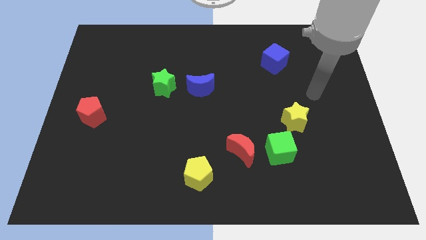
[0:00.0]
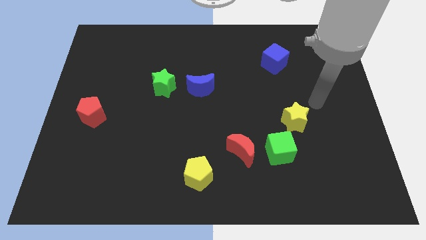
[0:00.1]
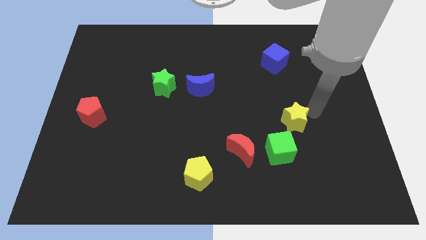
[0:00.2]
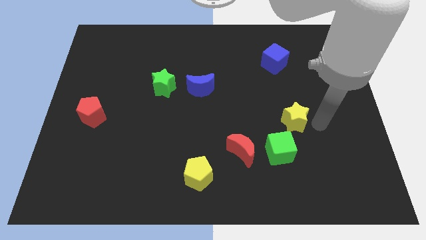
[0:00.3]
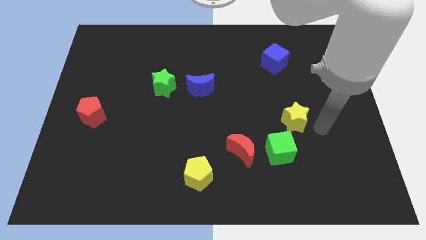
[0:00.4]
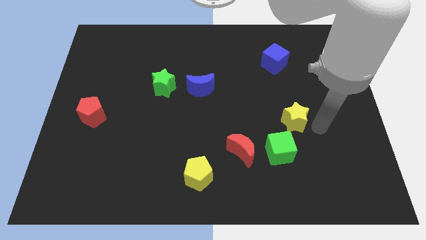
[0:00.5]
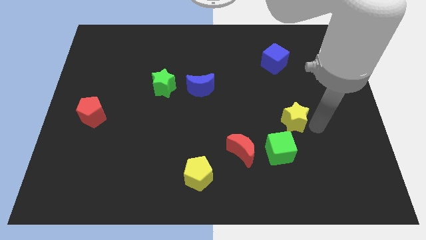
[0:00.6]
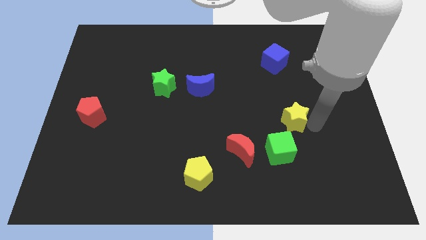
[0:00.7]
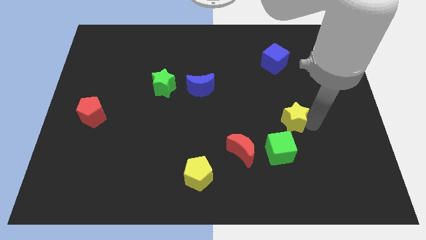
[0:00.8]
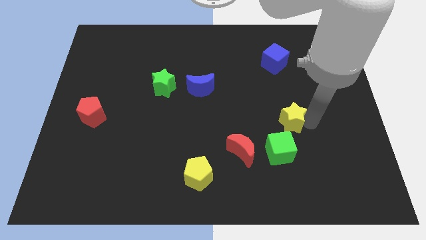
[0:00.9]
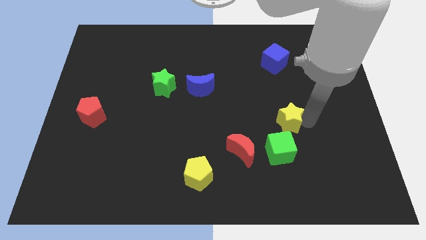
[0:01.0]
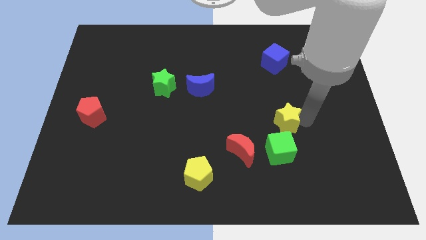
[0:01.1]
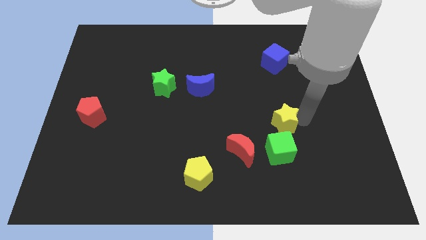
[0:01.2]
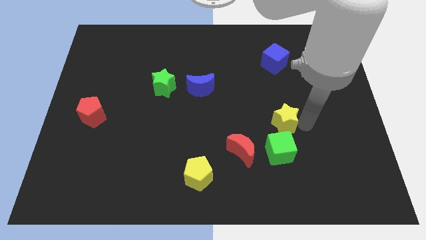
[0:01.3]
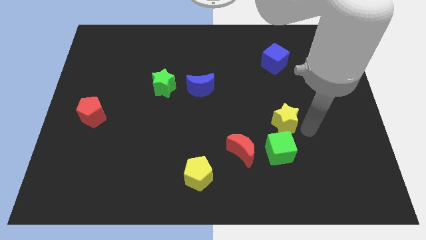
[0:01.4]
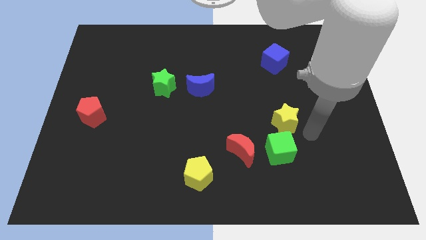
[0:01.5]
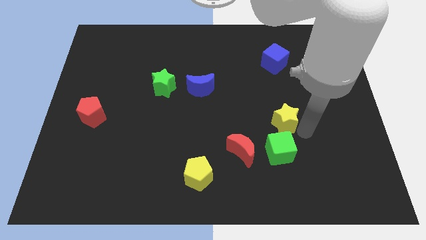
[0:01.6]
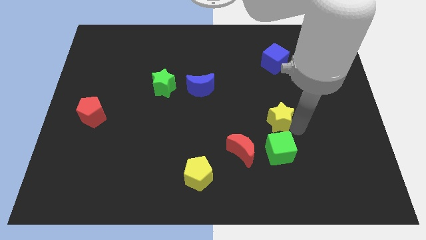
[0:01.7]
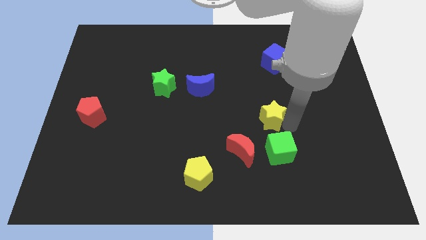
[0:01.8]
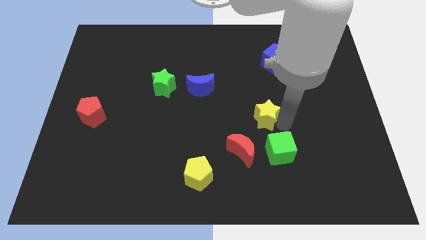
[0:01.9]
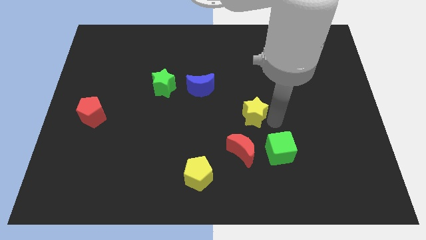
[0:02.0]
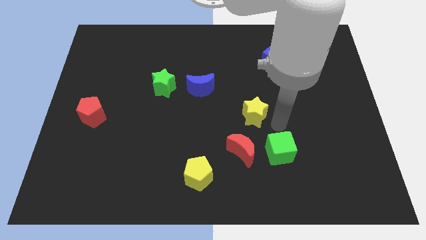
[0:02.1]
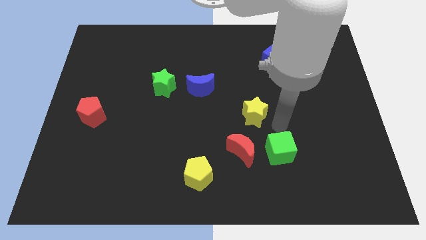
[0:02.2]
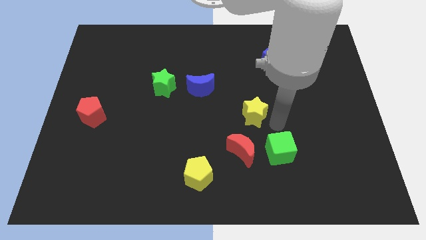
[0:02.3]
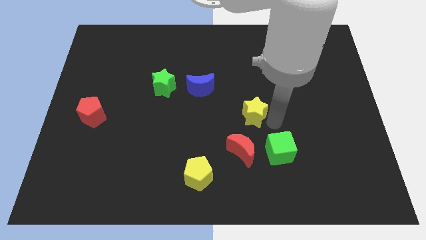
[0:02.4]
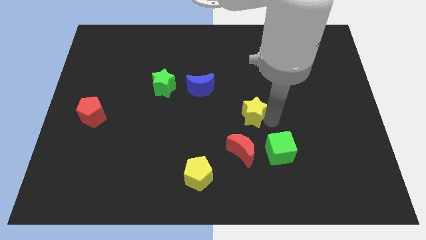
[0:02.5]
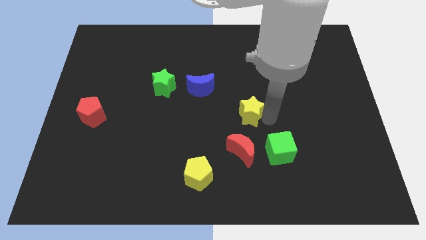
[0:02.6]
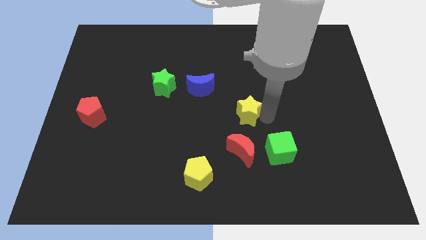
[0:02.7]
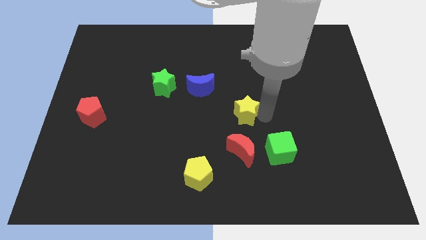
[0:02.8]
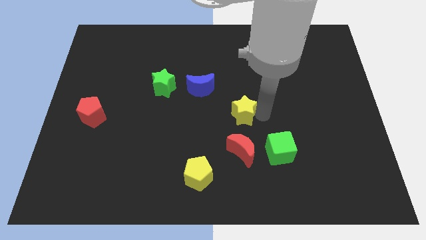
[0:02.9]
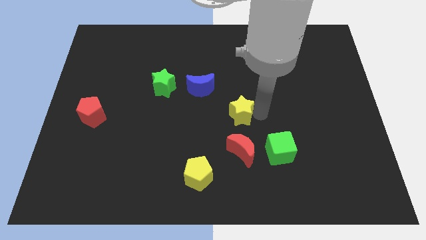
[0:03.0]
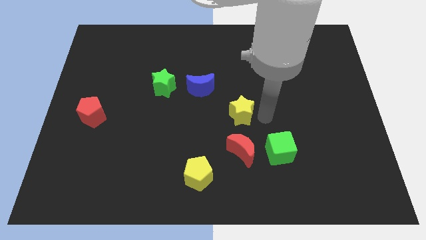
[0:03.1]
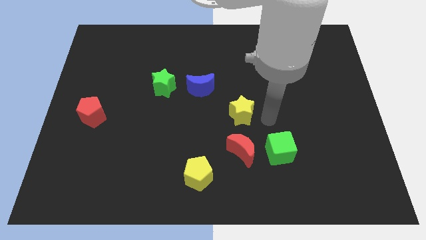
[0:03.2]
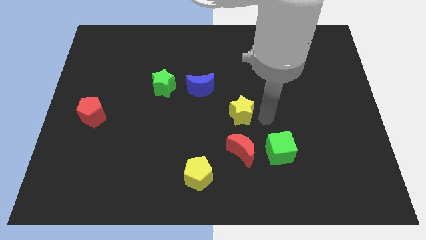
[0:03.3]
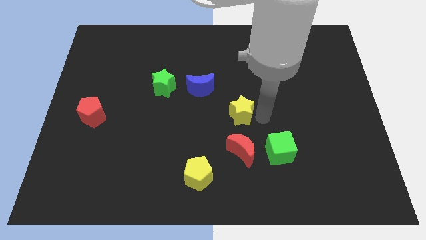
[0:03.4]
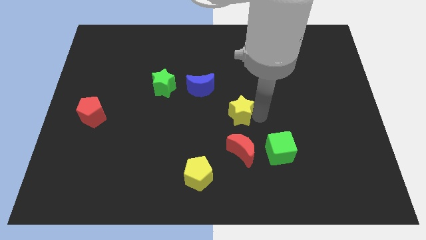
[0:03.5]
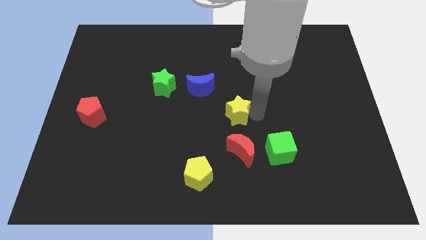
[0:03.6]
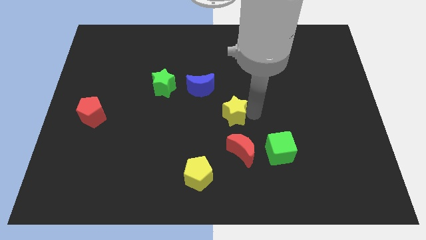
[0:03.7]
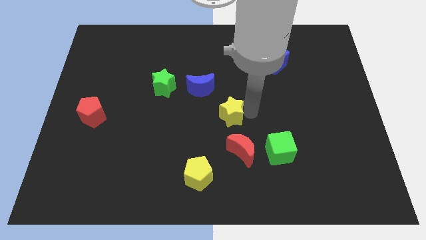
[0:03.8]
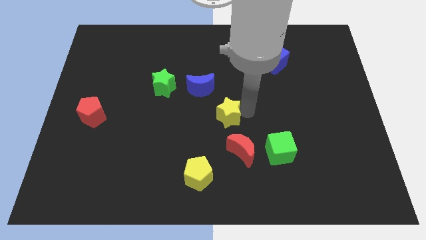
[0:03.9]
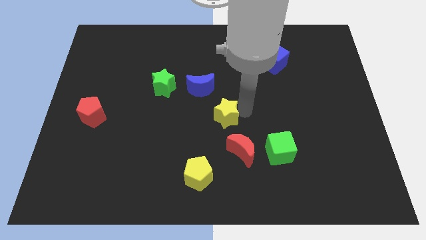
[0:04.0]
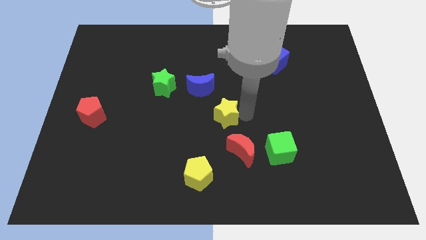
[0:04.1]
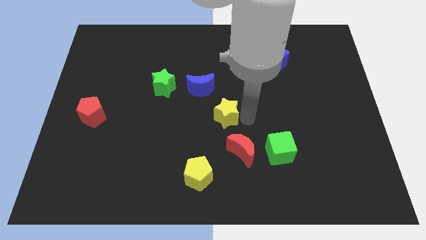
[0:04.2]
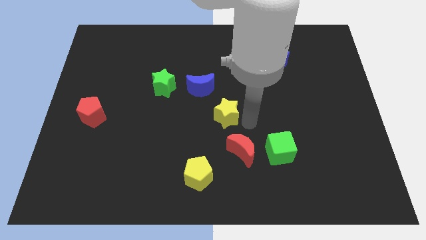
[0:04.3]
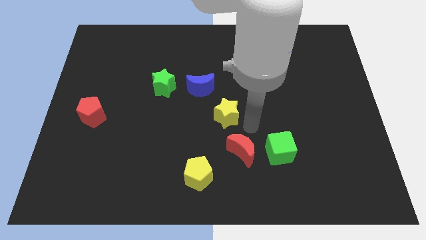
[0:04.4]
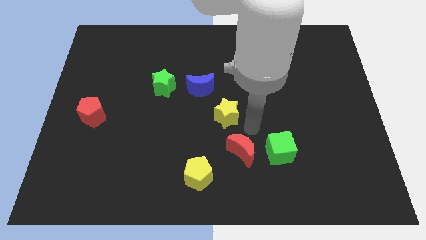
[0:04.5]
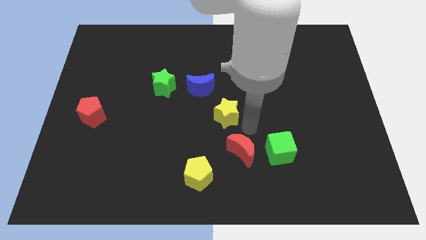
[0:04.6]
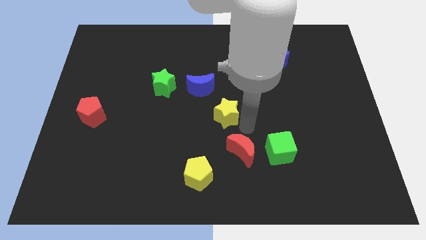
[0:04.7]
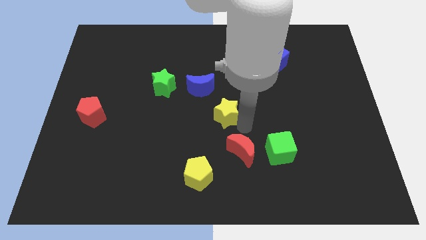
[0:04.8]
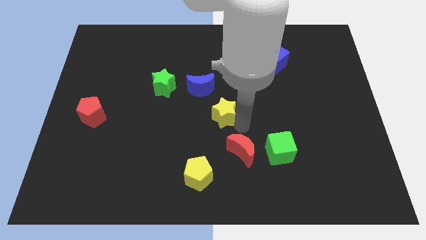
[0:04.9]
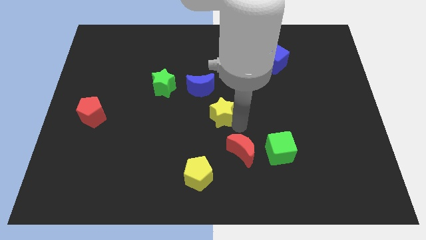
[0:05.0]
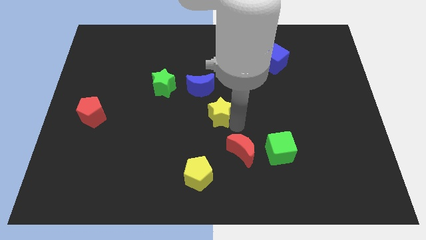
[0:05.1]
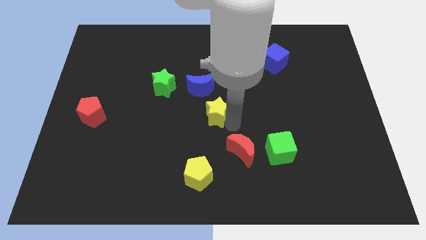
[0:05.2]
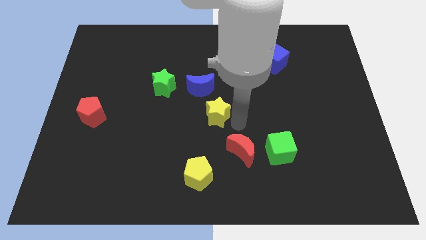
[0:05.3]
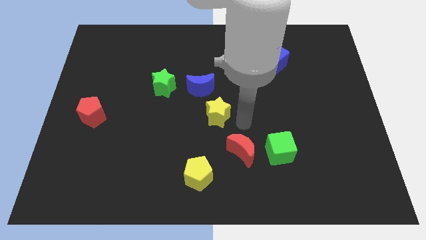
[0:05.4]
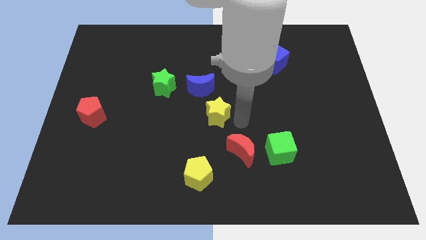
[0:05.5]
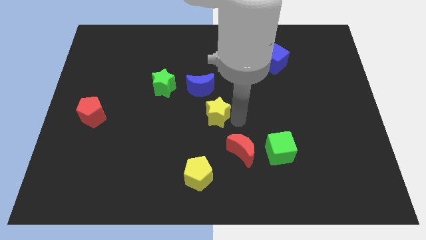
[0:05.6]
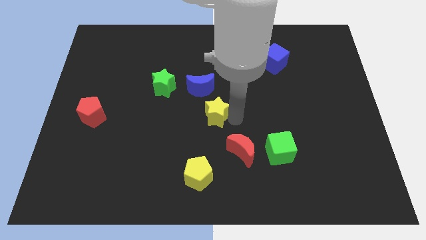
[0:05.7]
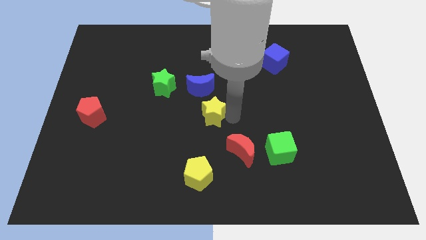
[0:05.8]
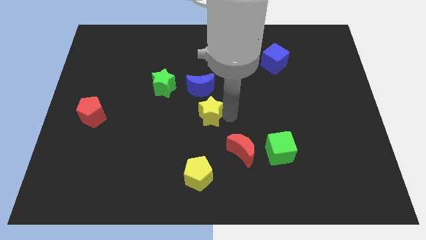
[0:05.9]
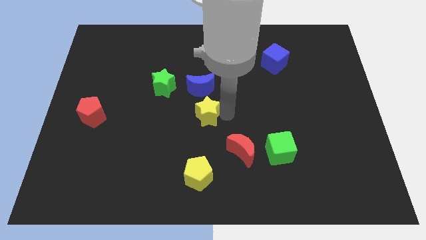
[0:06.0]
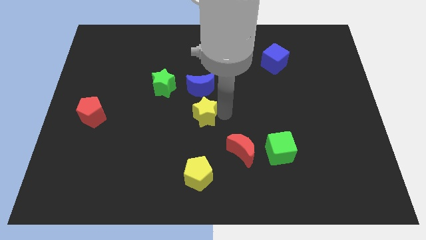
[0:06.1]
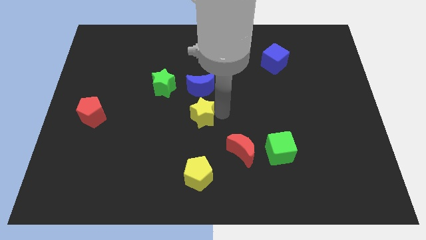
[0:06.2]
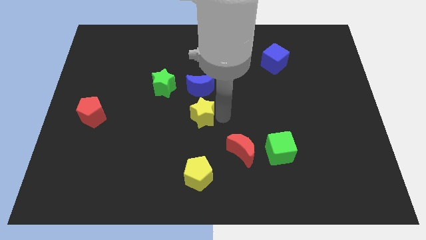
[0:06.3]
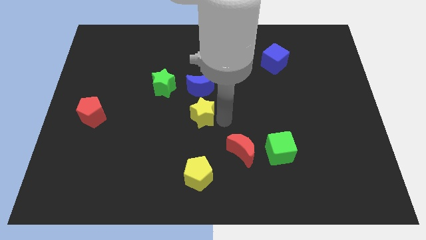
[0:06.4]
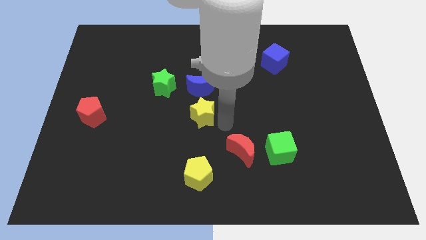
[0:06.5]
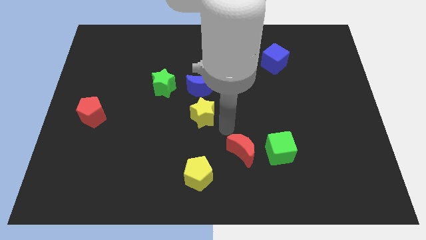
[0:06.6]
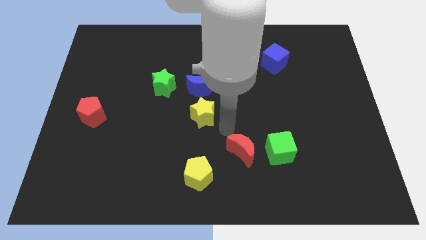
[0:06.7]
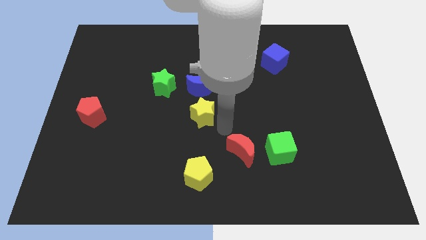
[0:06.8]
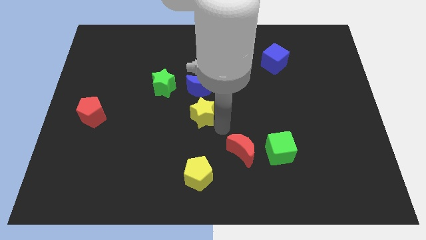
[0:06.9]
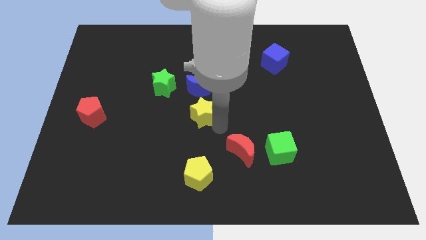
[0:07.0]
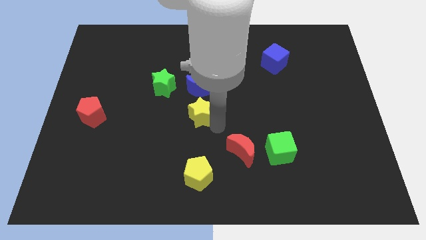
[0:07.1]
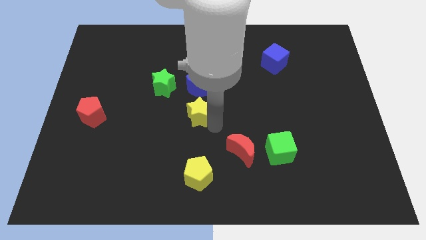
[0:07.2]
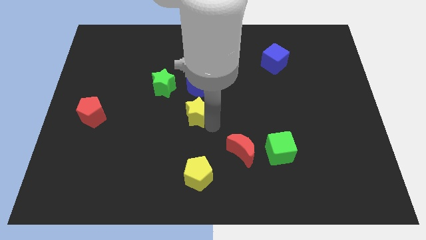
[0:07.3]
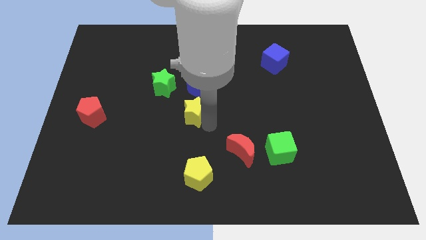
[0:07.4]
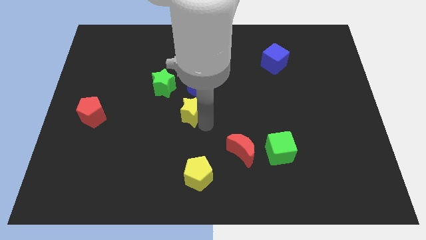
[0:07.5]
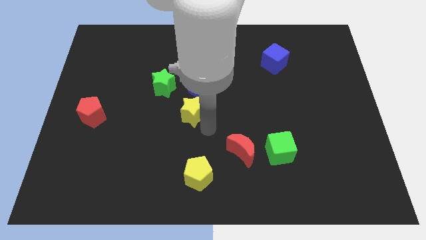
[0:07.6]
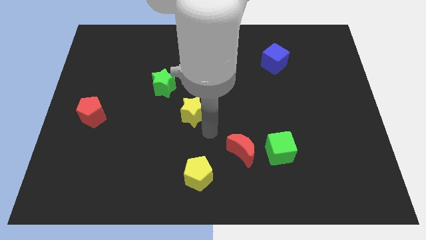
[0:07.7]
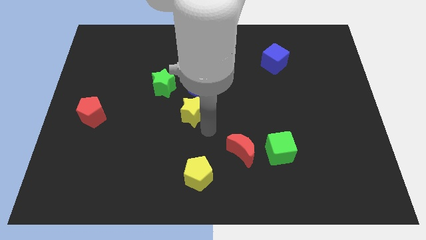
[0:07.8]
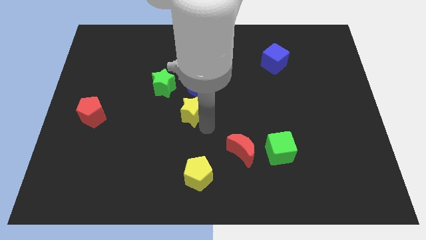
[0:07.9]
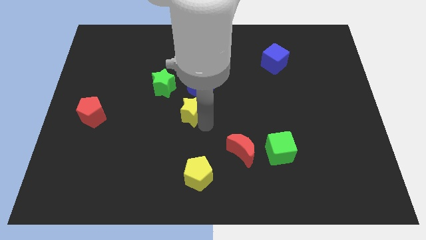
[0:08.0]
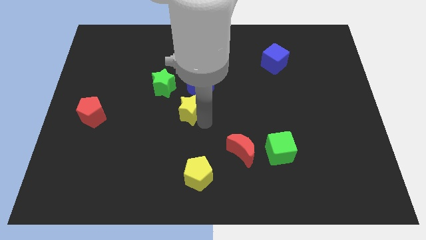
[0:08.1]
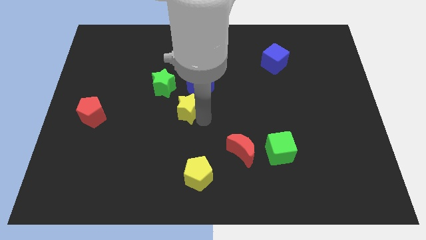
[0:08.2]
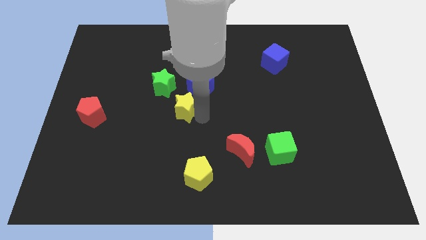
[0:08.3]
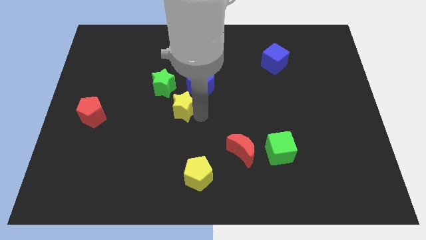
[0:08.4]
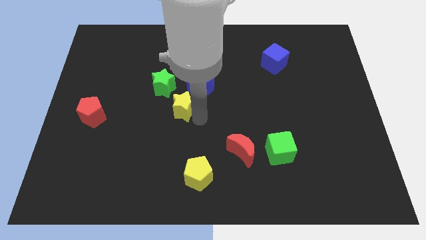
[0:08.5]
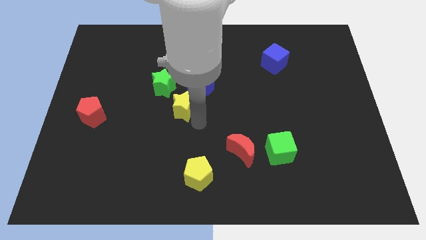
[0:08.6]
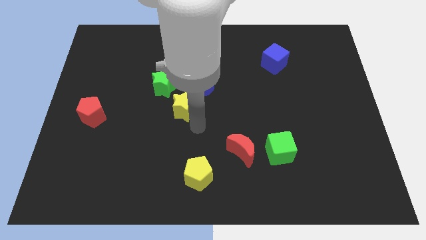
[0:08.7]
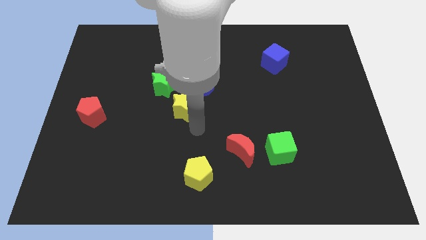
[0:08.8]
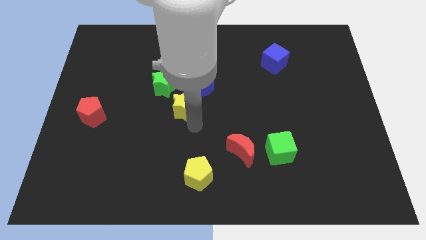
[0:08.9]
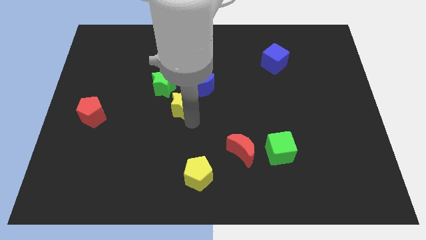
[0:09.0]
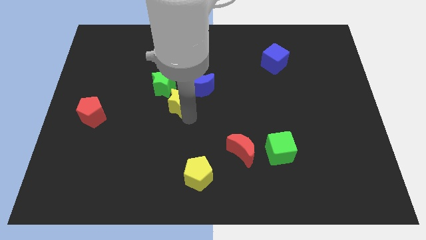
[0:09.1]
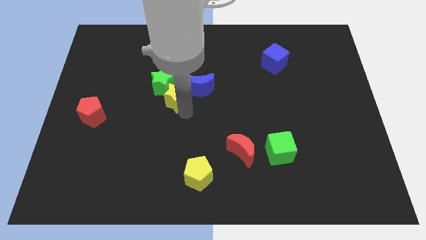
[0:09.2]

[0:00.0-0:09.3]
slide the yellow star close to the green star
